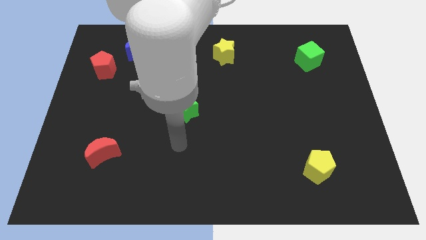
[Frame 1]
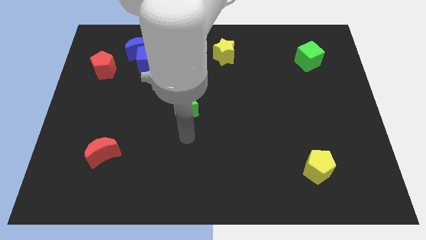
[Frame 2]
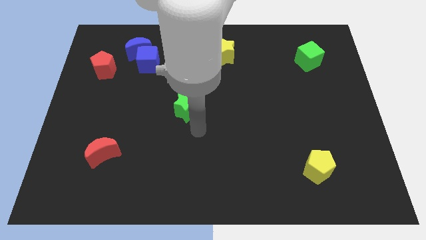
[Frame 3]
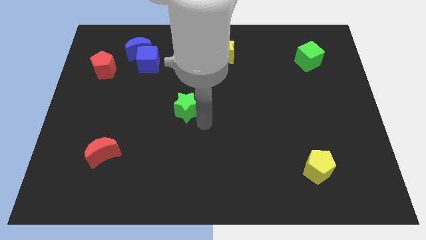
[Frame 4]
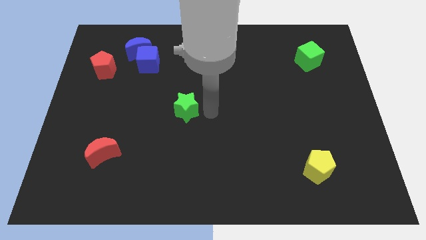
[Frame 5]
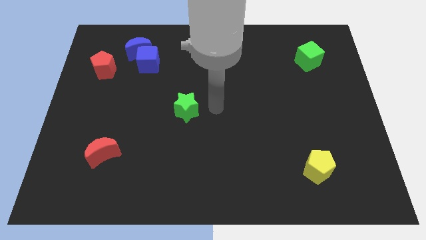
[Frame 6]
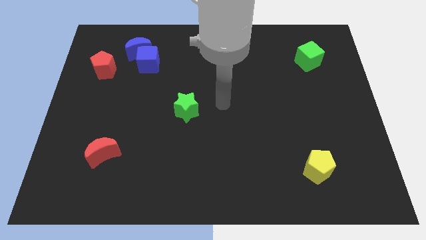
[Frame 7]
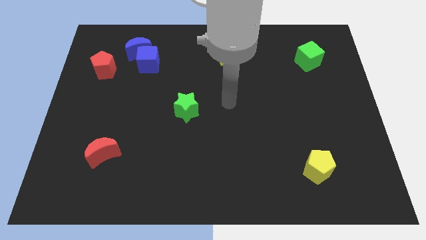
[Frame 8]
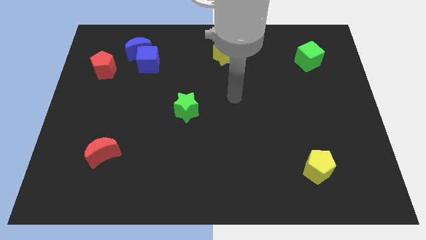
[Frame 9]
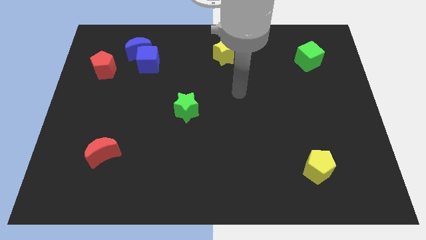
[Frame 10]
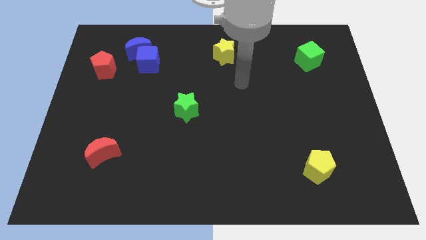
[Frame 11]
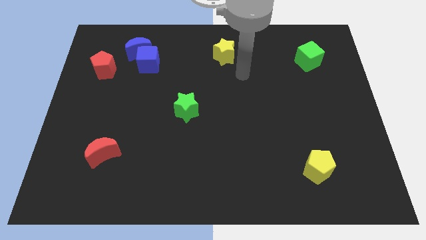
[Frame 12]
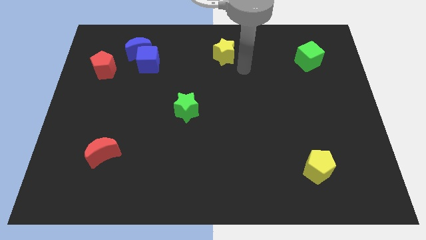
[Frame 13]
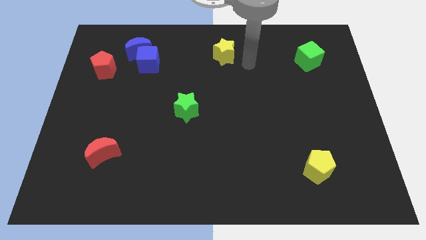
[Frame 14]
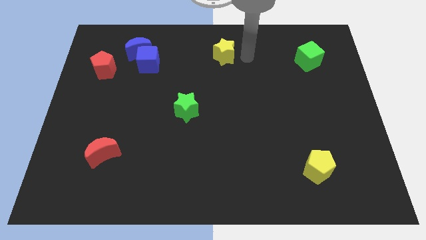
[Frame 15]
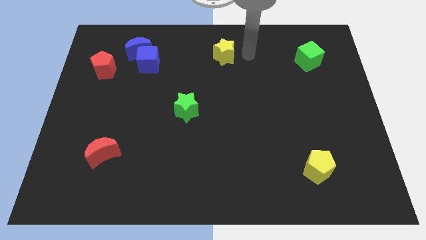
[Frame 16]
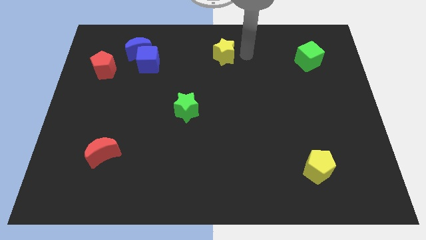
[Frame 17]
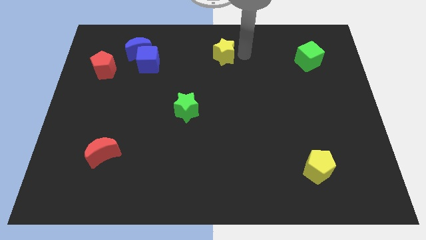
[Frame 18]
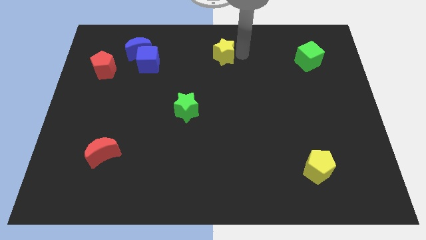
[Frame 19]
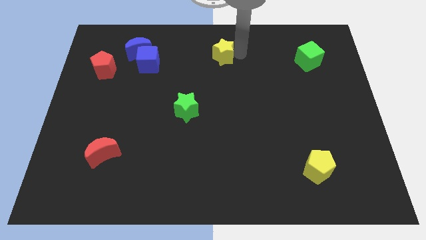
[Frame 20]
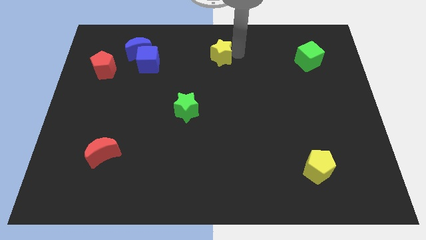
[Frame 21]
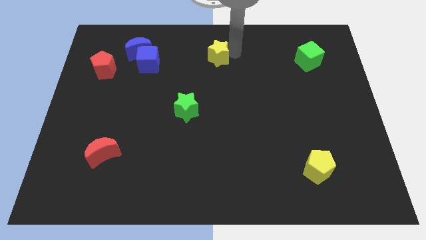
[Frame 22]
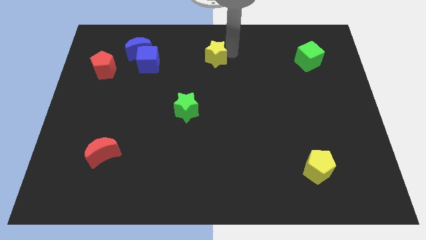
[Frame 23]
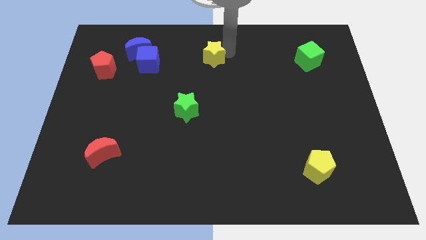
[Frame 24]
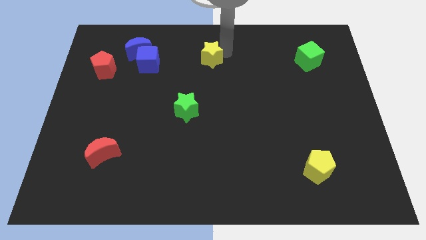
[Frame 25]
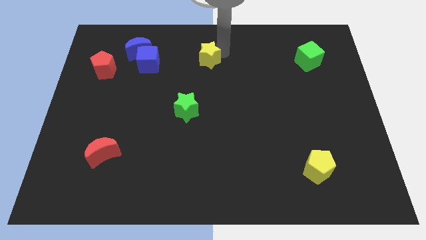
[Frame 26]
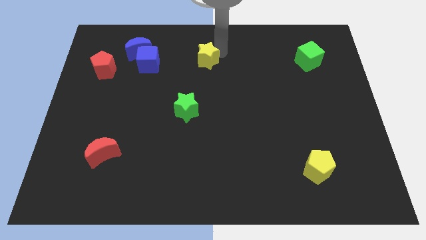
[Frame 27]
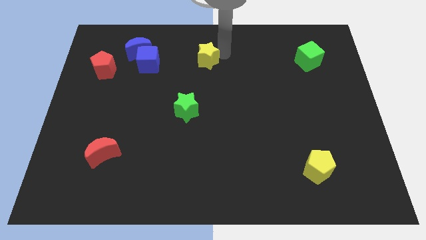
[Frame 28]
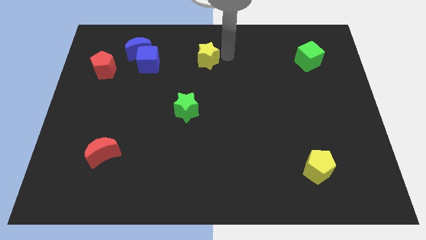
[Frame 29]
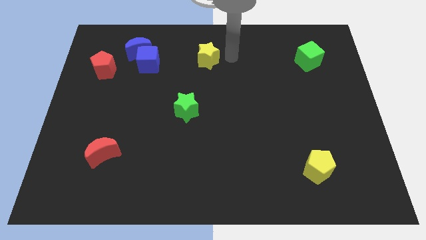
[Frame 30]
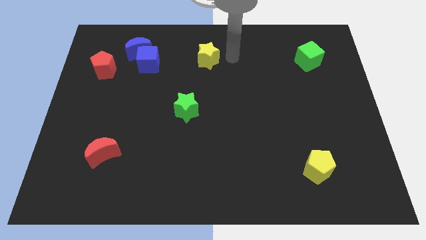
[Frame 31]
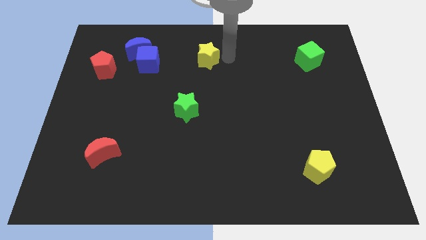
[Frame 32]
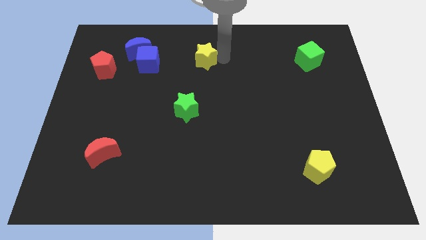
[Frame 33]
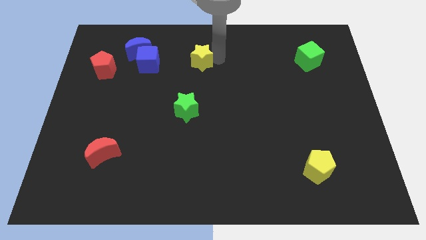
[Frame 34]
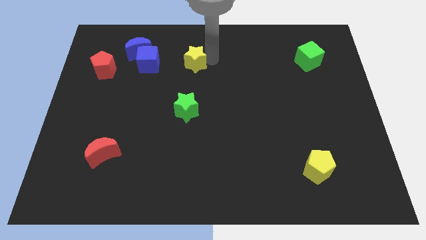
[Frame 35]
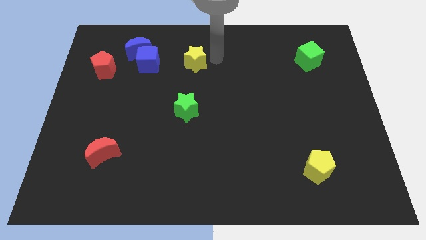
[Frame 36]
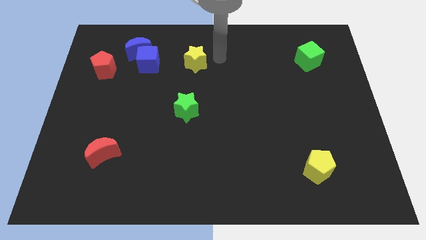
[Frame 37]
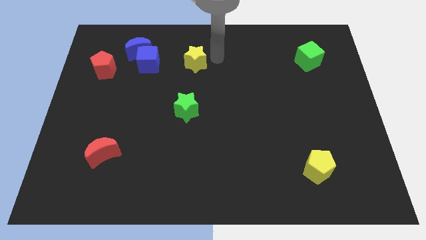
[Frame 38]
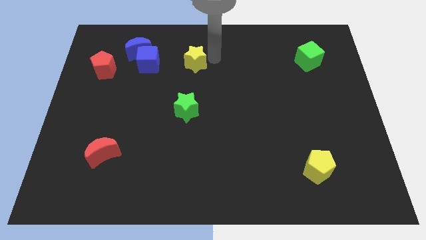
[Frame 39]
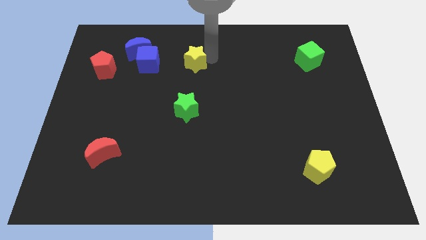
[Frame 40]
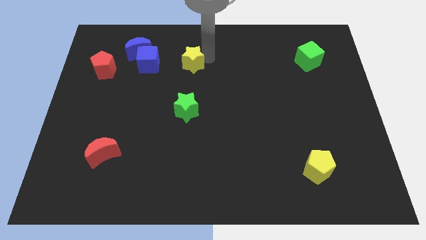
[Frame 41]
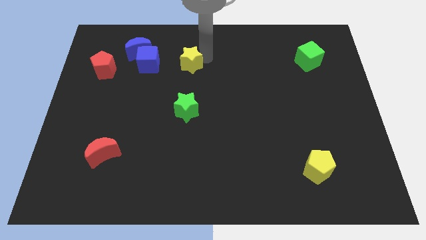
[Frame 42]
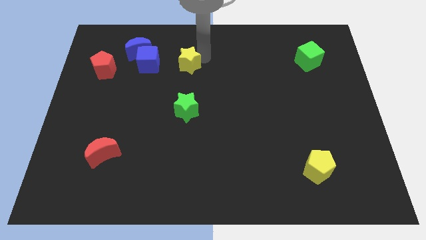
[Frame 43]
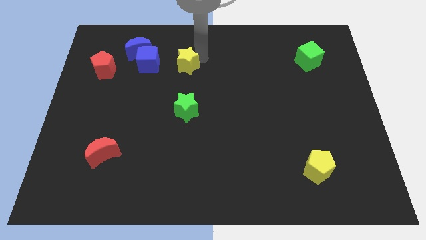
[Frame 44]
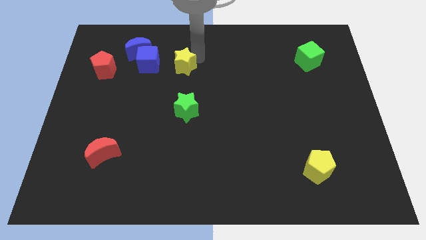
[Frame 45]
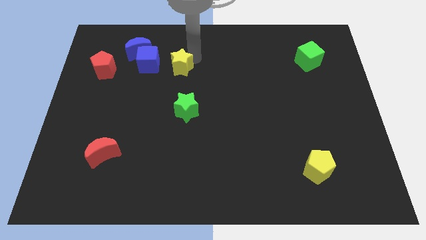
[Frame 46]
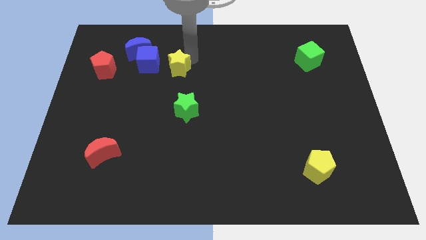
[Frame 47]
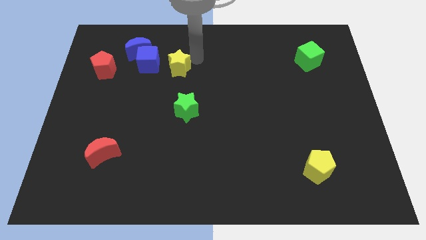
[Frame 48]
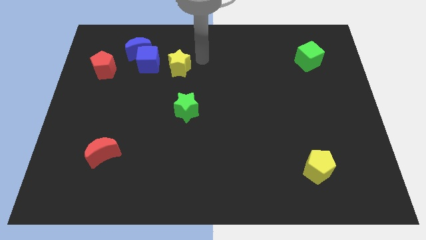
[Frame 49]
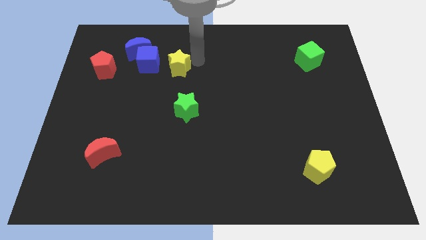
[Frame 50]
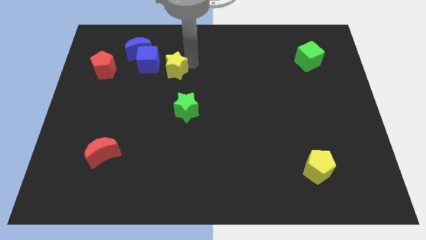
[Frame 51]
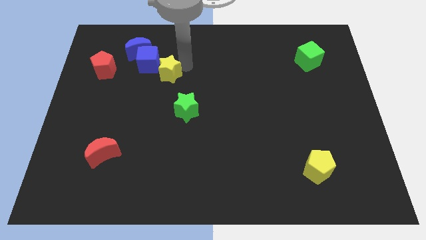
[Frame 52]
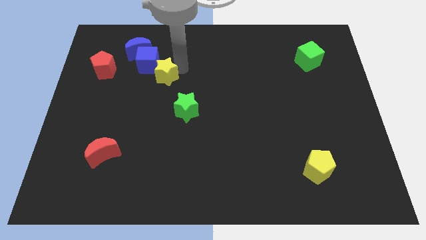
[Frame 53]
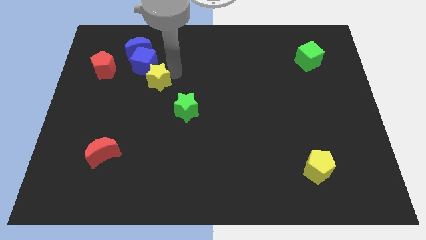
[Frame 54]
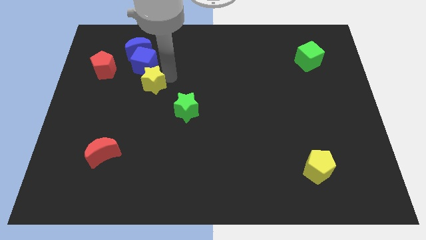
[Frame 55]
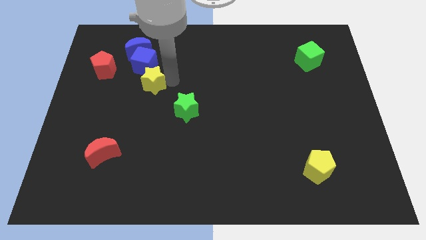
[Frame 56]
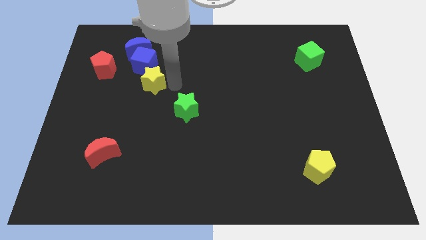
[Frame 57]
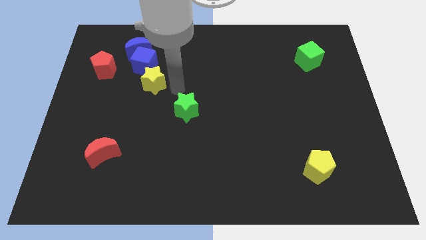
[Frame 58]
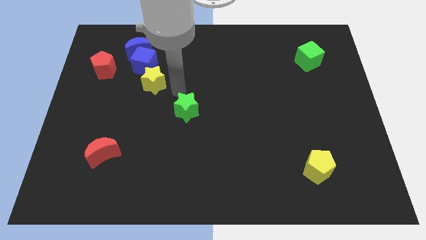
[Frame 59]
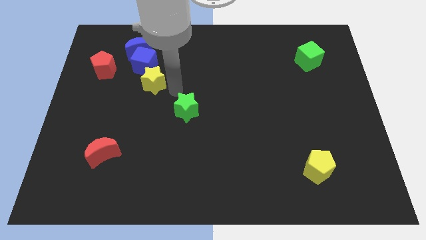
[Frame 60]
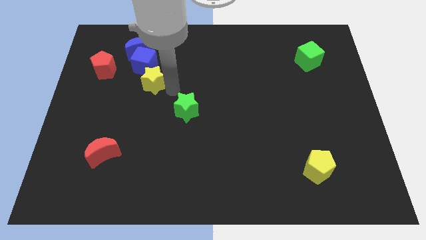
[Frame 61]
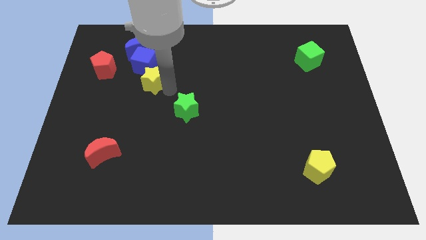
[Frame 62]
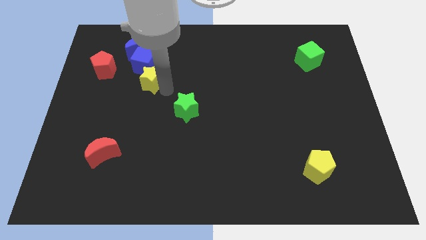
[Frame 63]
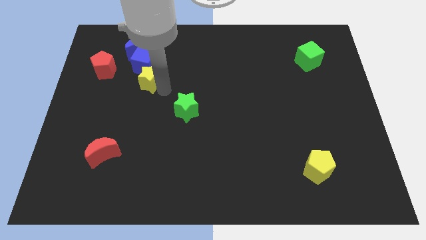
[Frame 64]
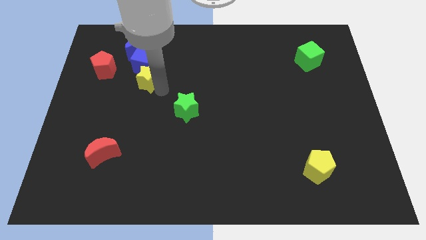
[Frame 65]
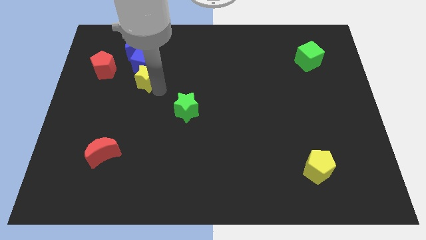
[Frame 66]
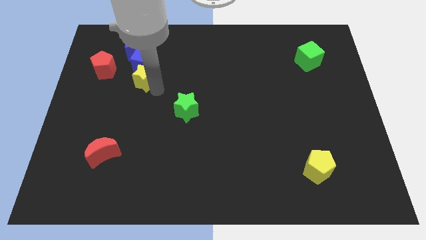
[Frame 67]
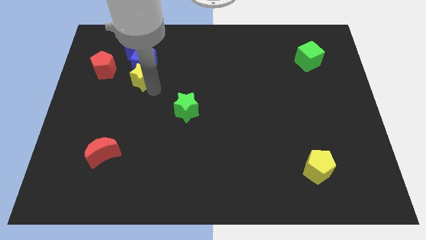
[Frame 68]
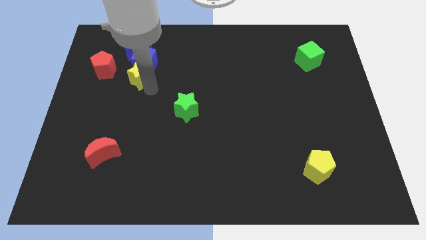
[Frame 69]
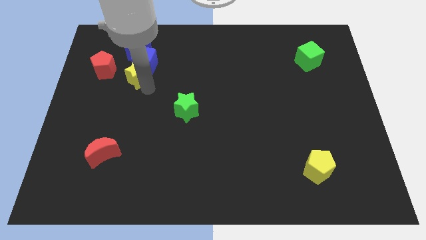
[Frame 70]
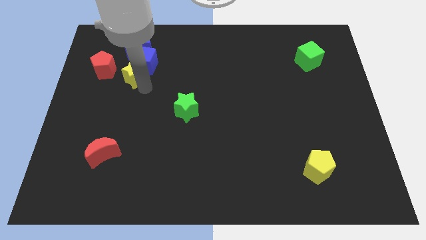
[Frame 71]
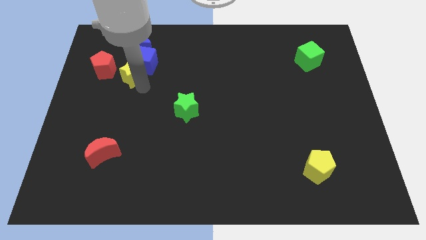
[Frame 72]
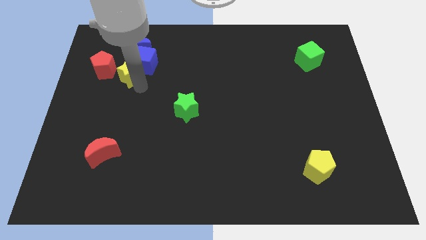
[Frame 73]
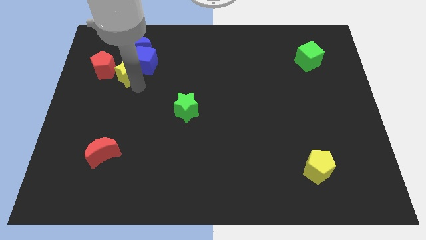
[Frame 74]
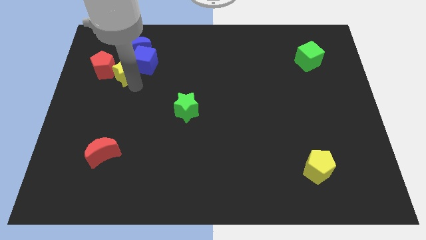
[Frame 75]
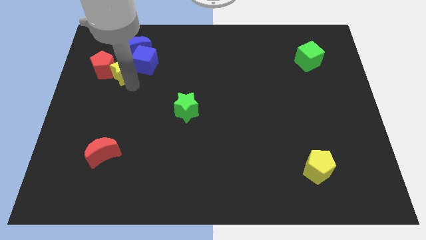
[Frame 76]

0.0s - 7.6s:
slide the yellow star to the red pentagon
